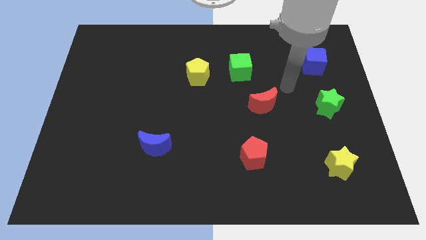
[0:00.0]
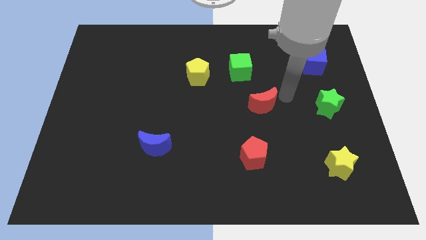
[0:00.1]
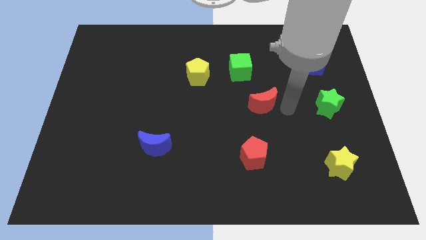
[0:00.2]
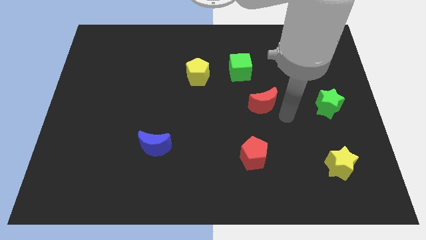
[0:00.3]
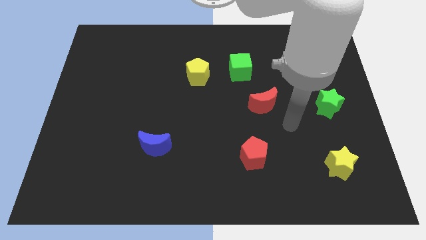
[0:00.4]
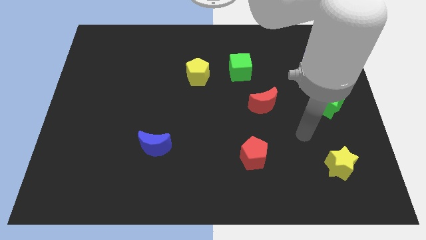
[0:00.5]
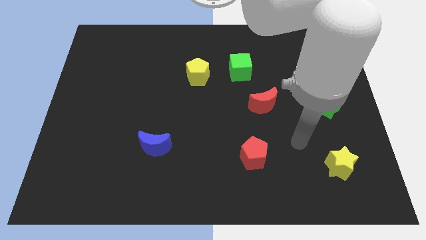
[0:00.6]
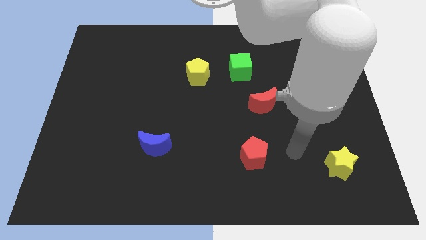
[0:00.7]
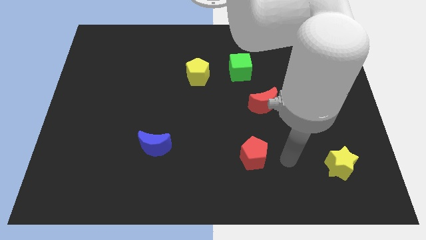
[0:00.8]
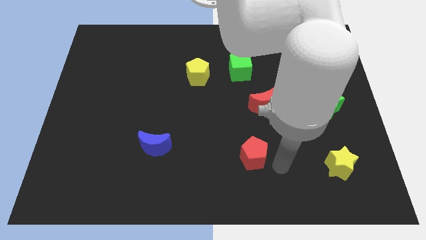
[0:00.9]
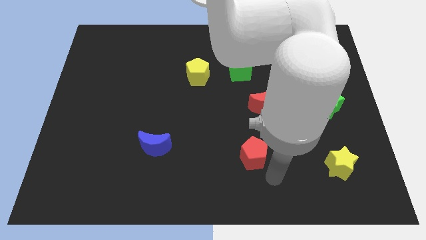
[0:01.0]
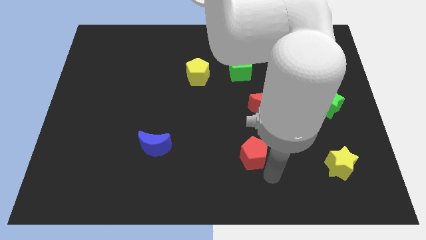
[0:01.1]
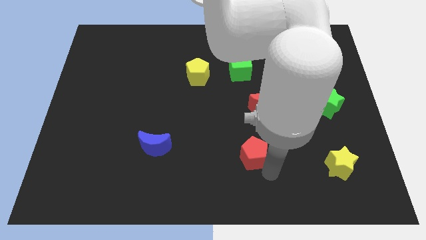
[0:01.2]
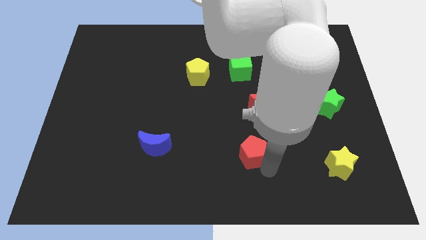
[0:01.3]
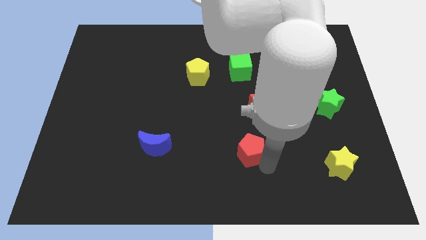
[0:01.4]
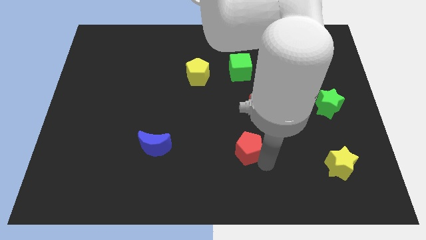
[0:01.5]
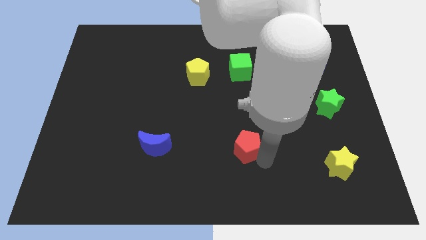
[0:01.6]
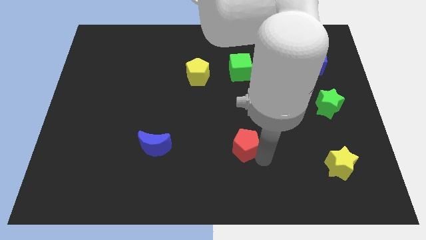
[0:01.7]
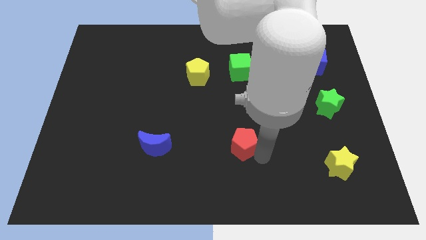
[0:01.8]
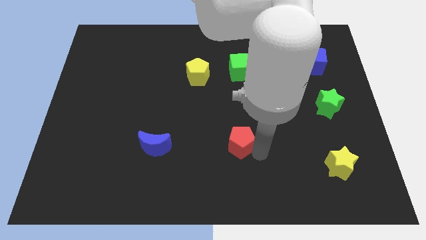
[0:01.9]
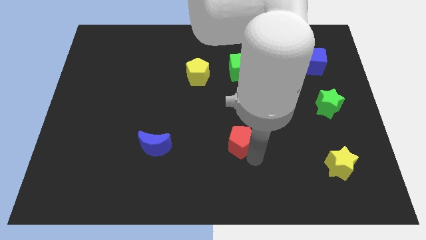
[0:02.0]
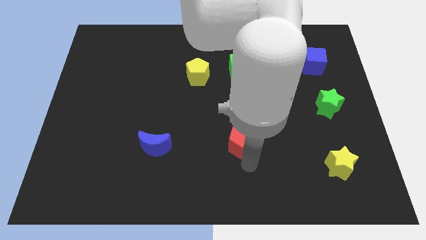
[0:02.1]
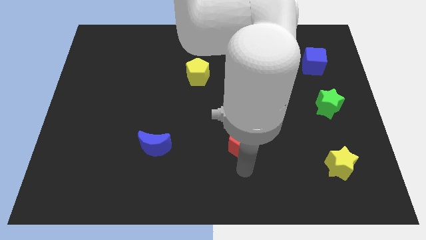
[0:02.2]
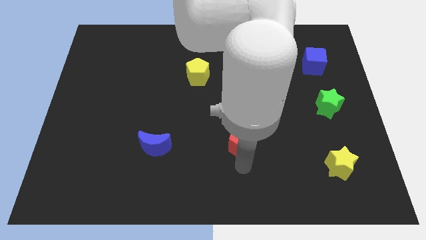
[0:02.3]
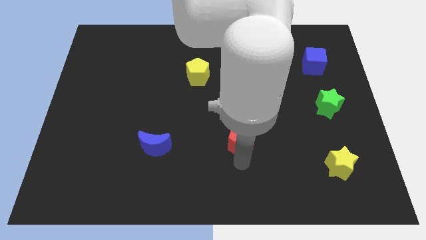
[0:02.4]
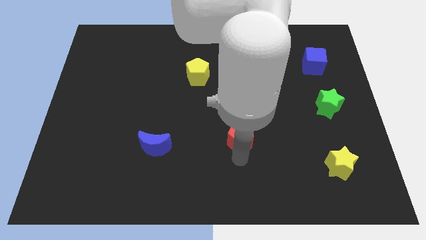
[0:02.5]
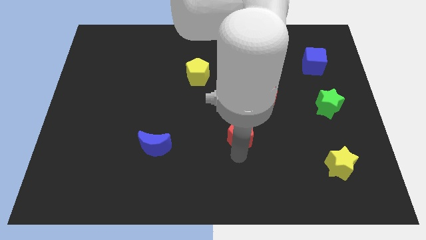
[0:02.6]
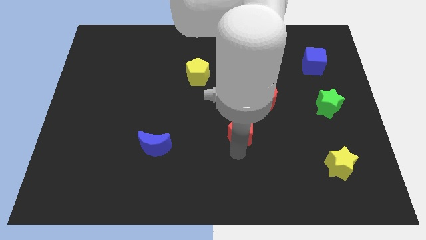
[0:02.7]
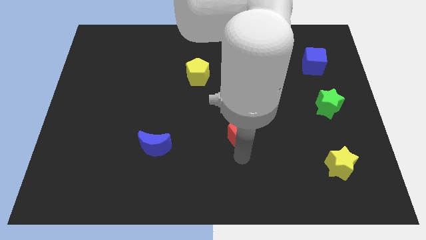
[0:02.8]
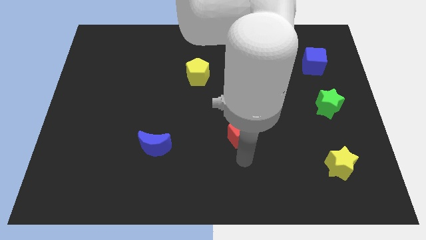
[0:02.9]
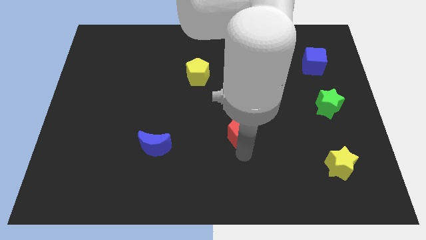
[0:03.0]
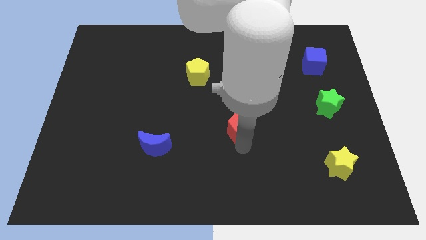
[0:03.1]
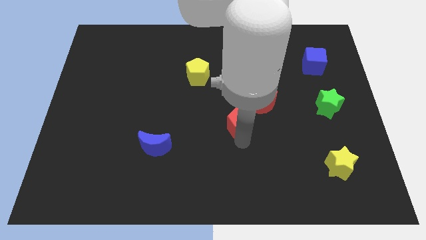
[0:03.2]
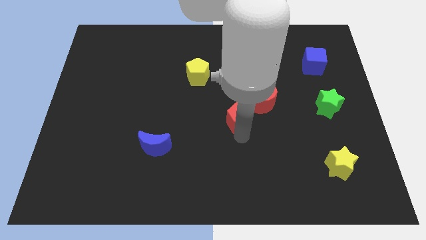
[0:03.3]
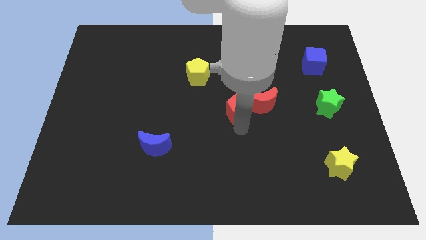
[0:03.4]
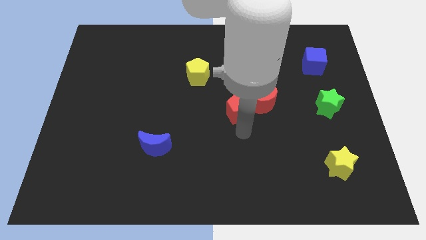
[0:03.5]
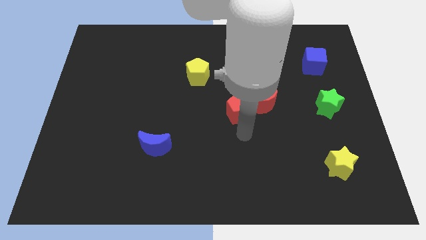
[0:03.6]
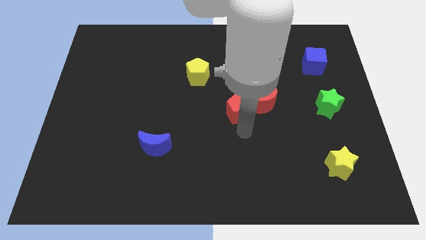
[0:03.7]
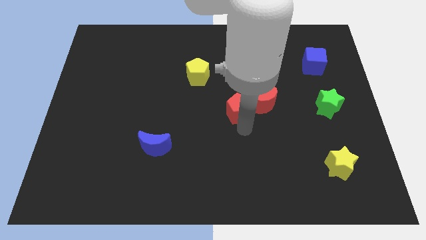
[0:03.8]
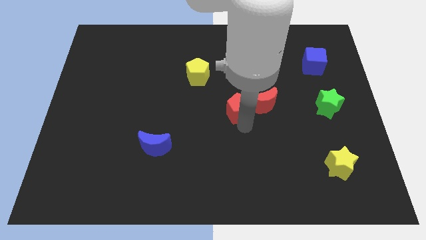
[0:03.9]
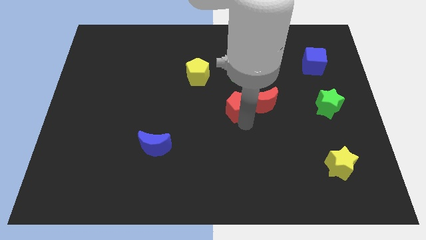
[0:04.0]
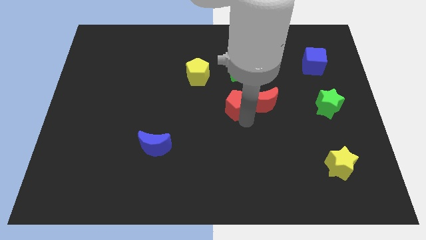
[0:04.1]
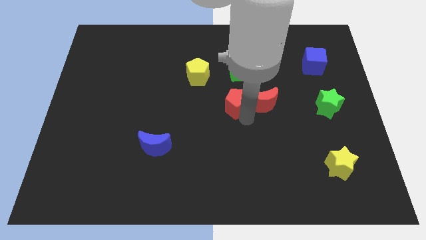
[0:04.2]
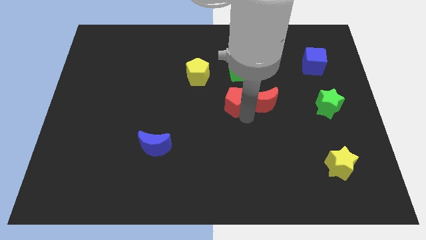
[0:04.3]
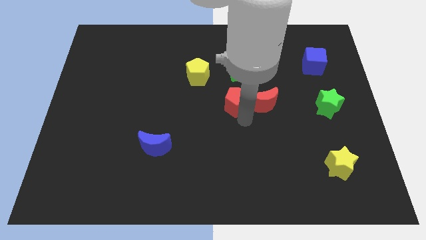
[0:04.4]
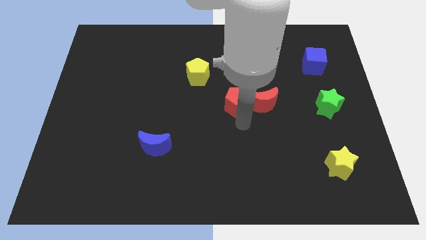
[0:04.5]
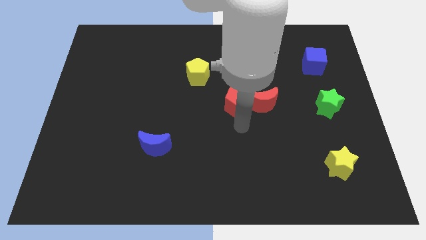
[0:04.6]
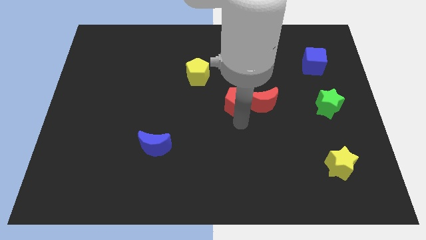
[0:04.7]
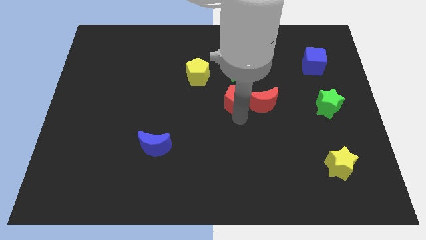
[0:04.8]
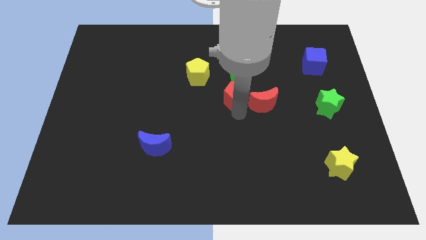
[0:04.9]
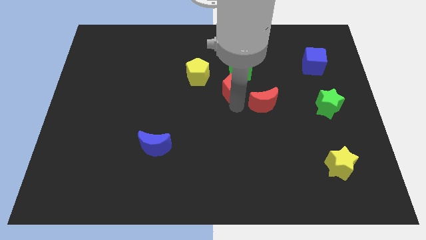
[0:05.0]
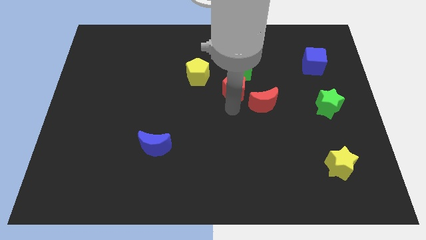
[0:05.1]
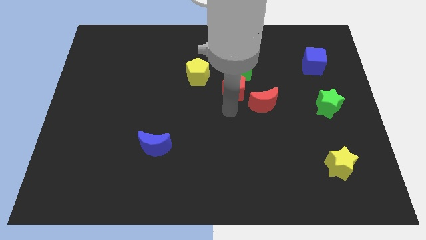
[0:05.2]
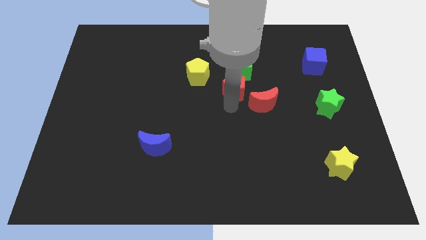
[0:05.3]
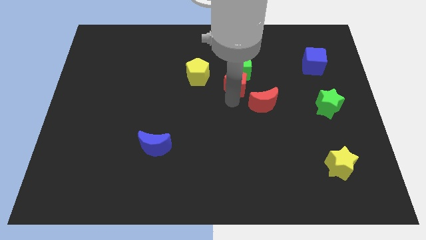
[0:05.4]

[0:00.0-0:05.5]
put the red pentagon to the green cube

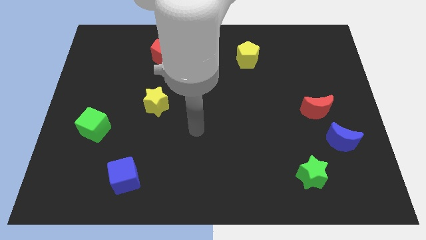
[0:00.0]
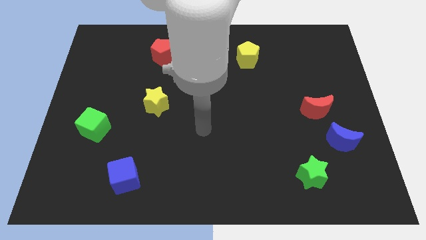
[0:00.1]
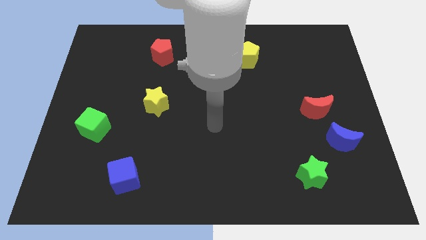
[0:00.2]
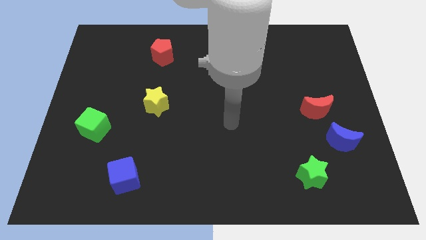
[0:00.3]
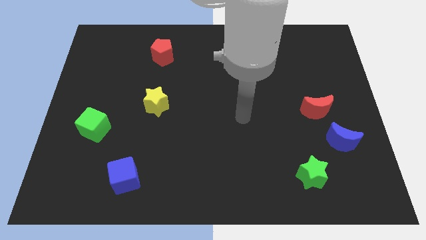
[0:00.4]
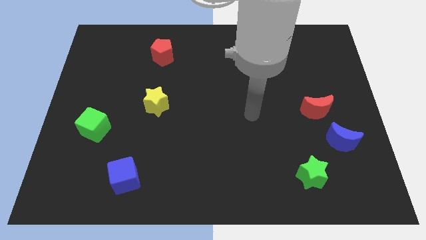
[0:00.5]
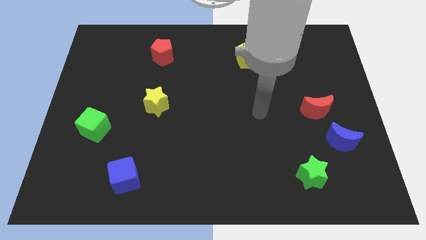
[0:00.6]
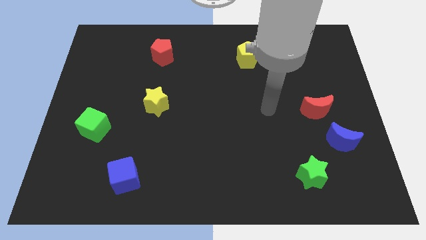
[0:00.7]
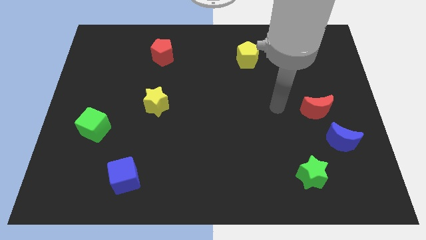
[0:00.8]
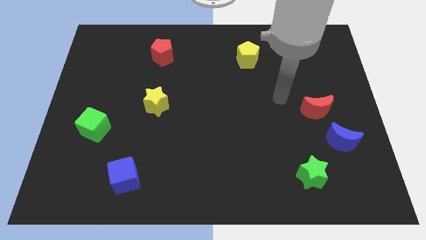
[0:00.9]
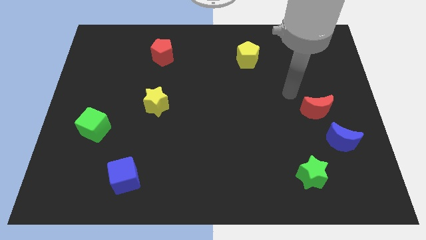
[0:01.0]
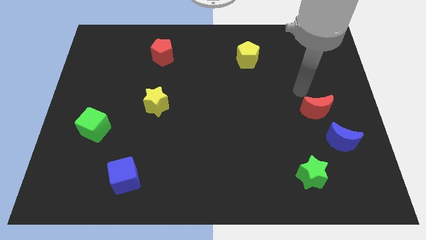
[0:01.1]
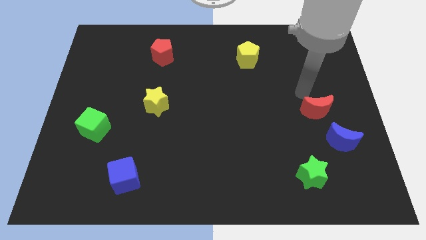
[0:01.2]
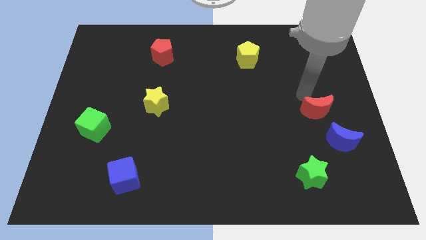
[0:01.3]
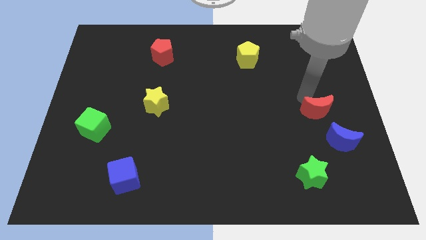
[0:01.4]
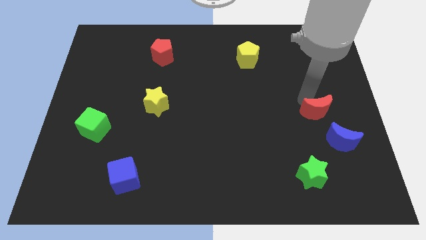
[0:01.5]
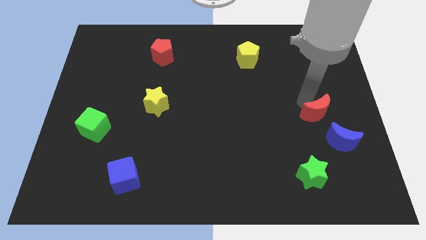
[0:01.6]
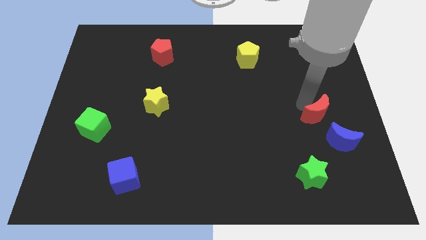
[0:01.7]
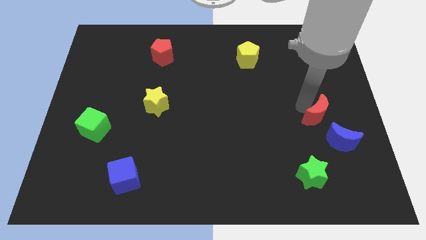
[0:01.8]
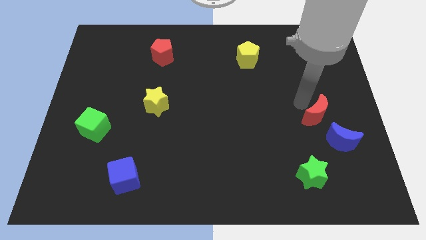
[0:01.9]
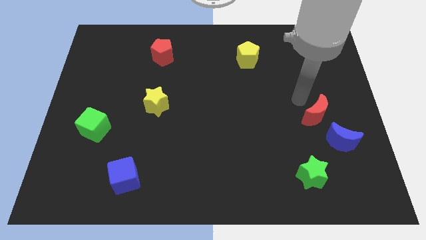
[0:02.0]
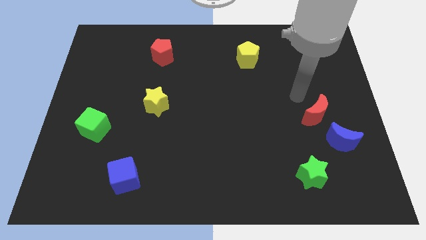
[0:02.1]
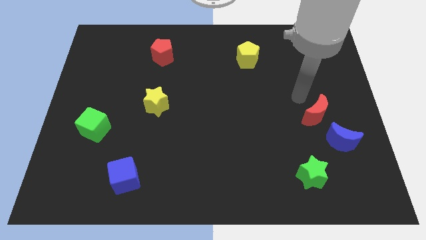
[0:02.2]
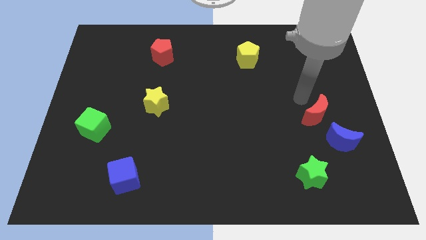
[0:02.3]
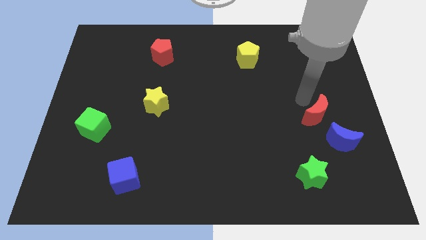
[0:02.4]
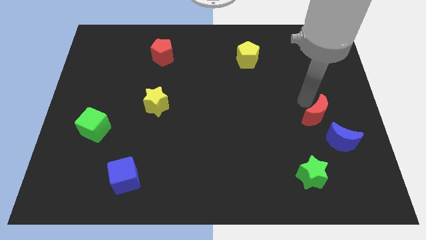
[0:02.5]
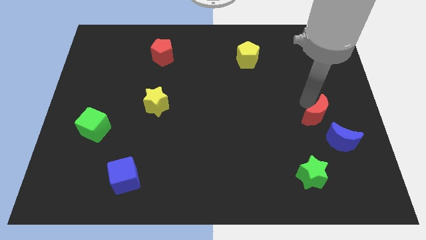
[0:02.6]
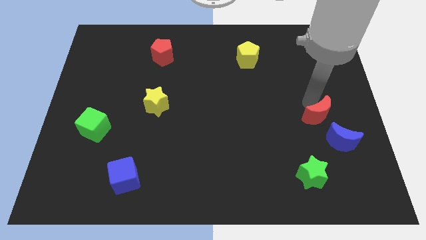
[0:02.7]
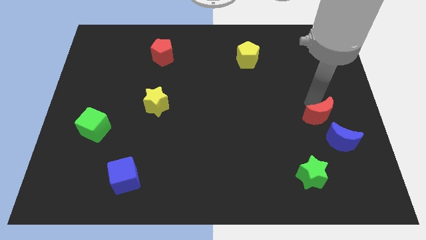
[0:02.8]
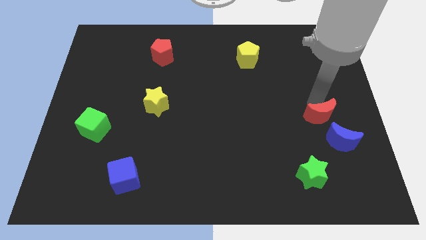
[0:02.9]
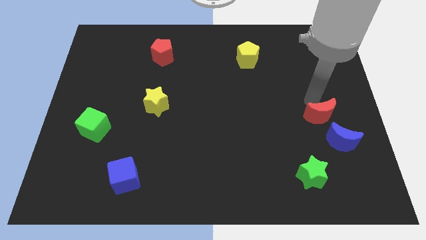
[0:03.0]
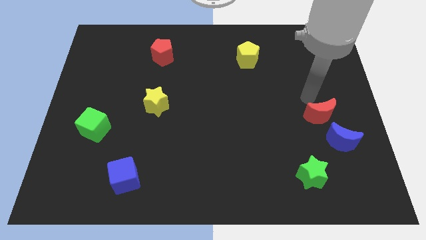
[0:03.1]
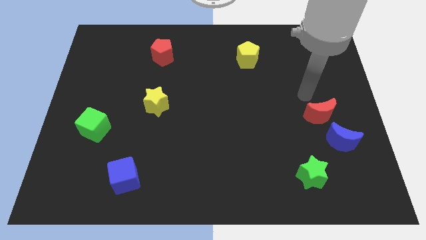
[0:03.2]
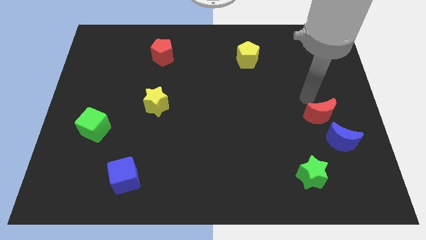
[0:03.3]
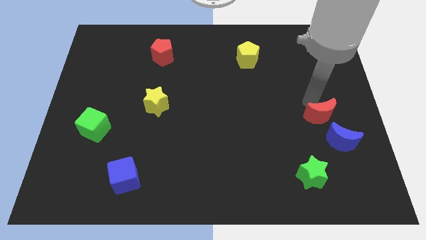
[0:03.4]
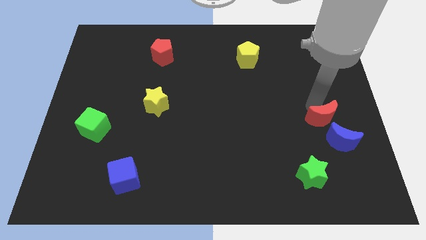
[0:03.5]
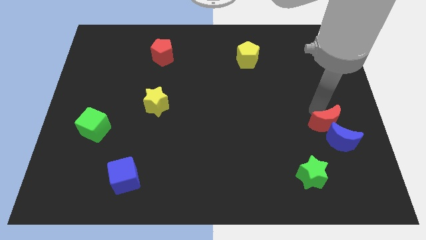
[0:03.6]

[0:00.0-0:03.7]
move the red moon to the blue moon
